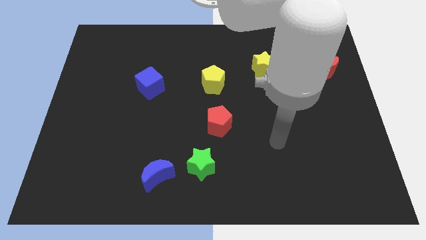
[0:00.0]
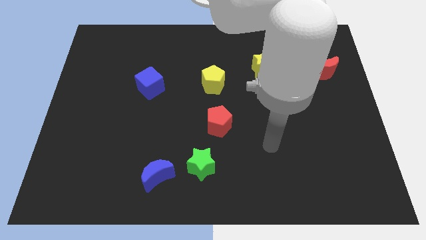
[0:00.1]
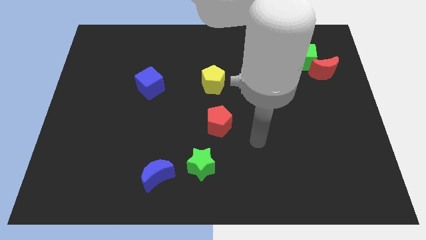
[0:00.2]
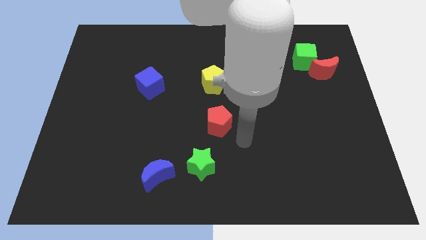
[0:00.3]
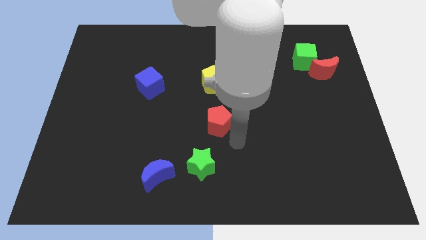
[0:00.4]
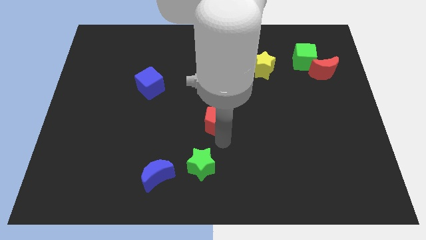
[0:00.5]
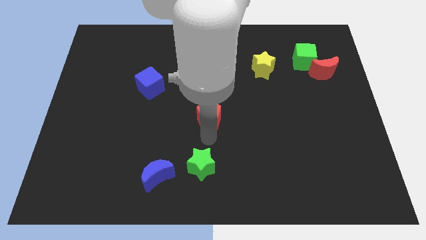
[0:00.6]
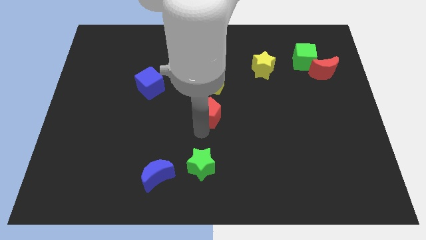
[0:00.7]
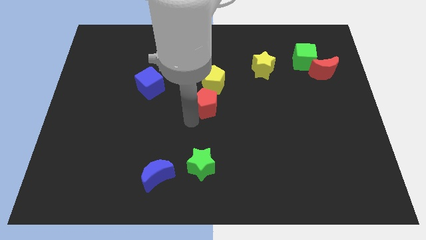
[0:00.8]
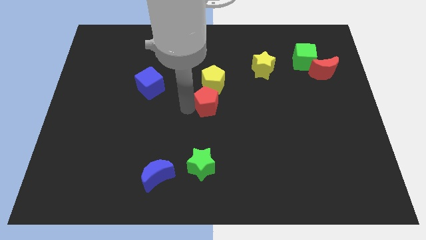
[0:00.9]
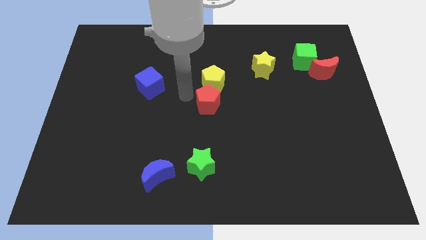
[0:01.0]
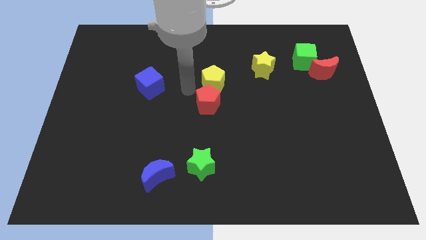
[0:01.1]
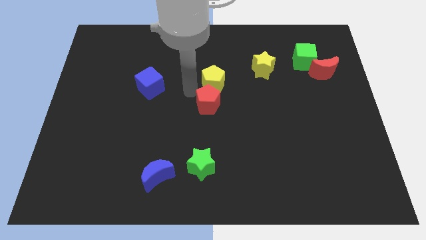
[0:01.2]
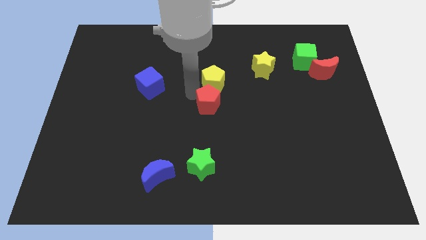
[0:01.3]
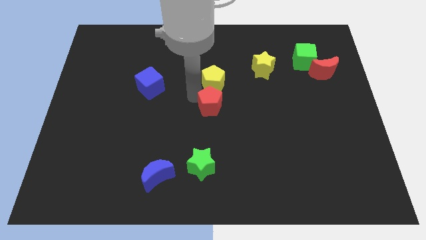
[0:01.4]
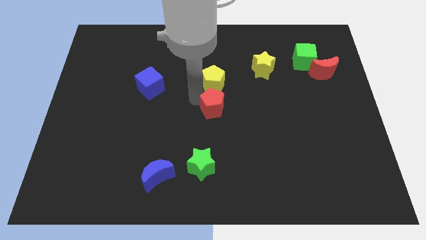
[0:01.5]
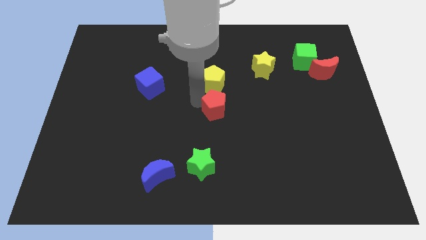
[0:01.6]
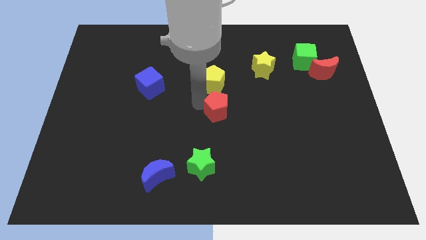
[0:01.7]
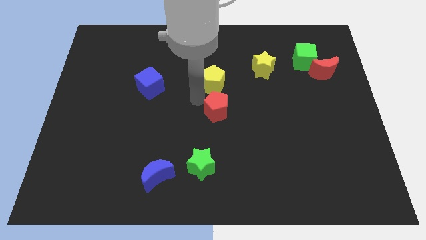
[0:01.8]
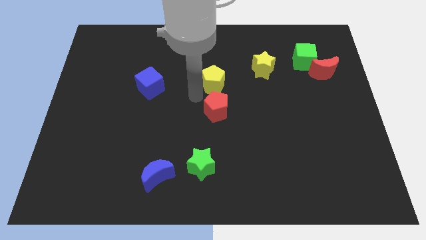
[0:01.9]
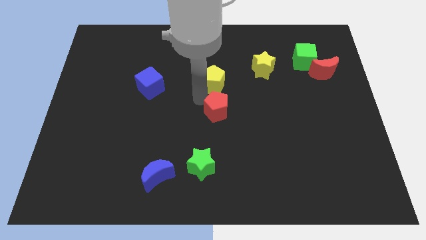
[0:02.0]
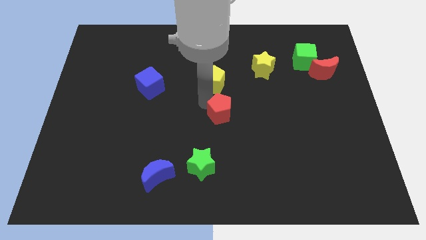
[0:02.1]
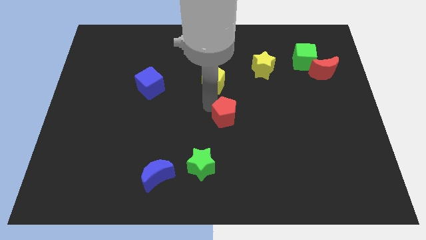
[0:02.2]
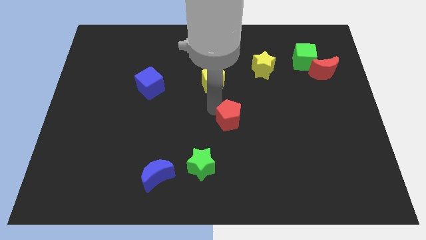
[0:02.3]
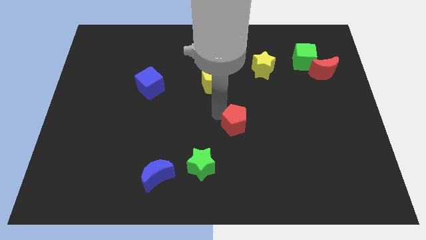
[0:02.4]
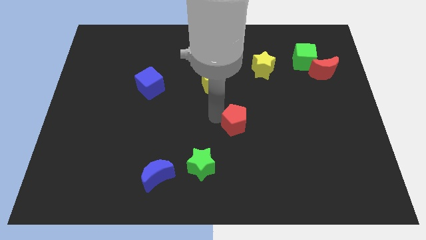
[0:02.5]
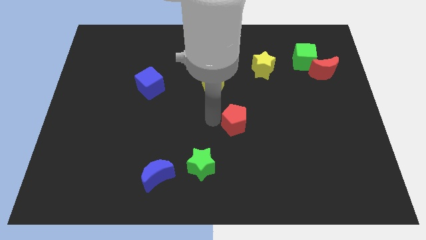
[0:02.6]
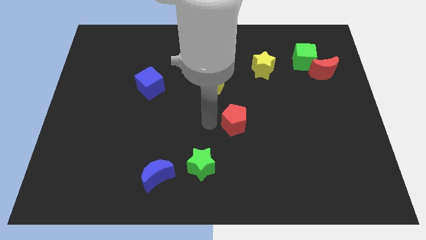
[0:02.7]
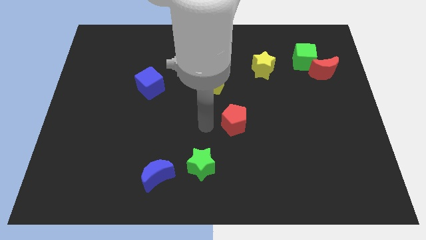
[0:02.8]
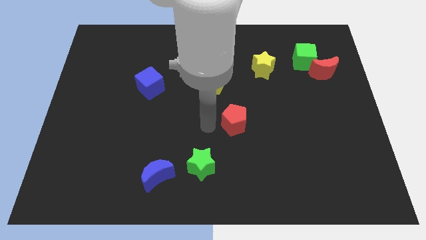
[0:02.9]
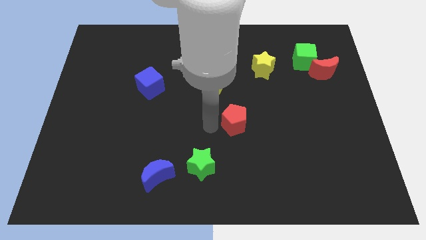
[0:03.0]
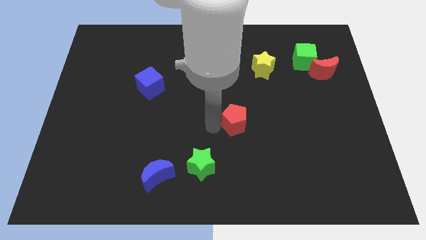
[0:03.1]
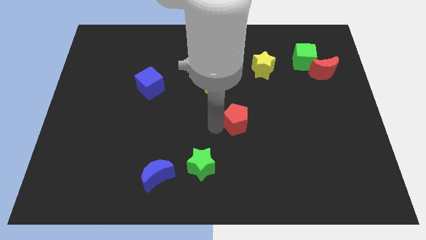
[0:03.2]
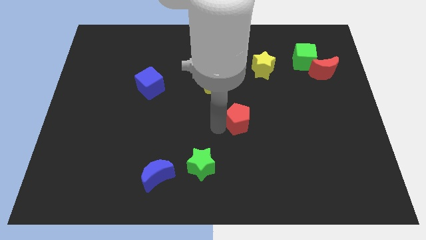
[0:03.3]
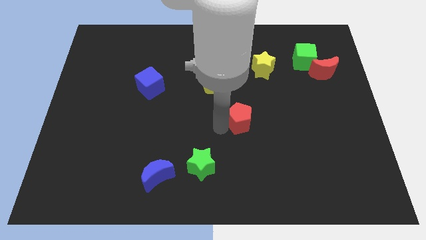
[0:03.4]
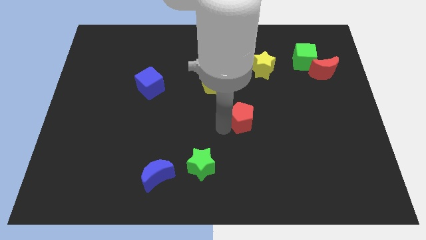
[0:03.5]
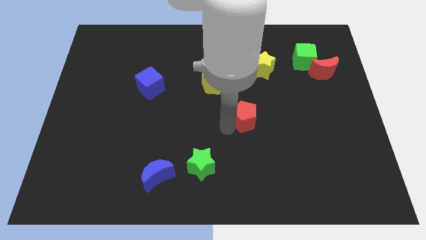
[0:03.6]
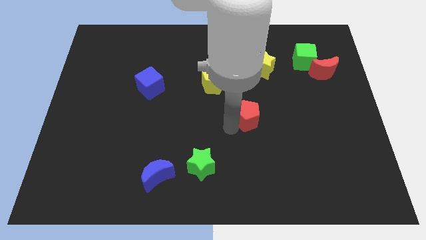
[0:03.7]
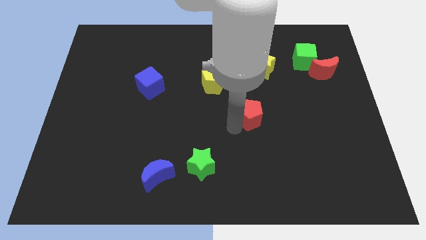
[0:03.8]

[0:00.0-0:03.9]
move the red pentagon right a little

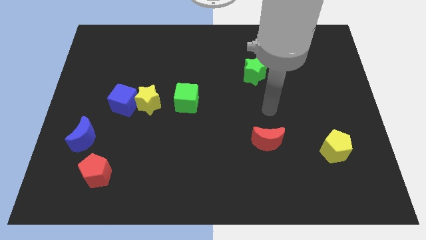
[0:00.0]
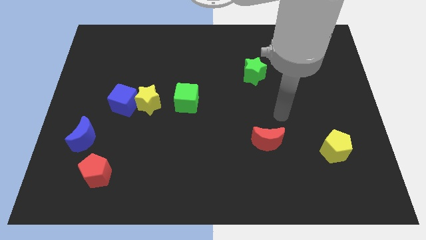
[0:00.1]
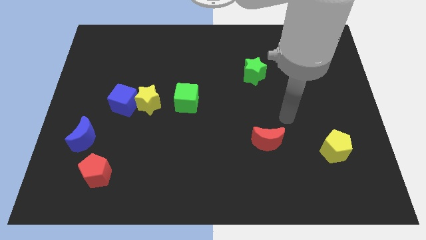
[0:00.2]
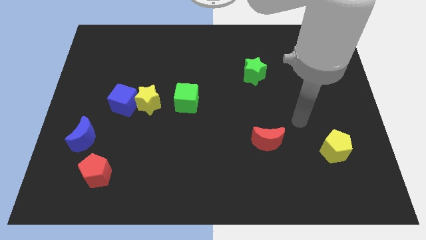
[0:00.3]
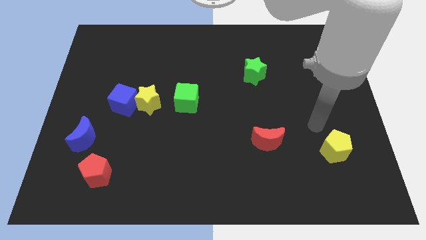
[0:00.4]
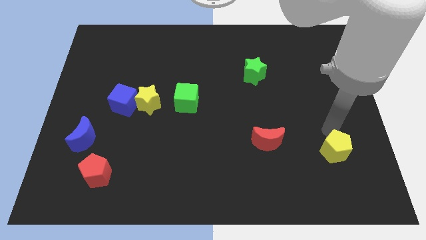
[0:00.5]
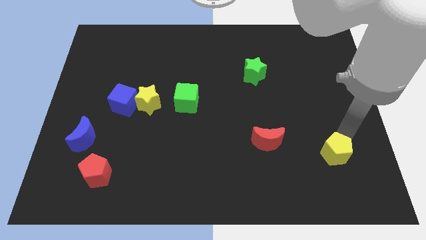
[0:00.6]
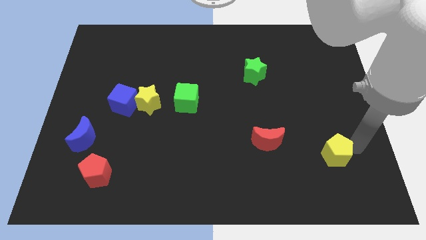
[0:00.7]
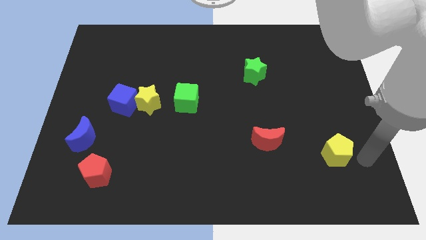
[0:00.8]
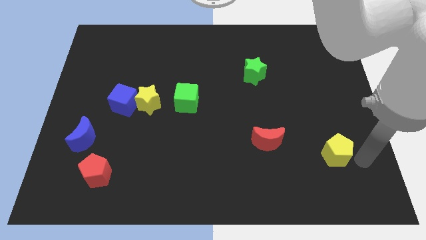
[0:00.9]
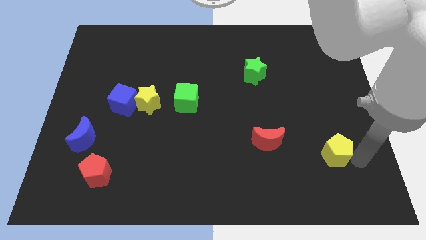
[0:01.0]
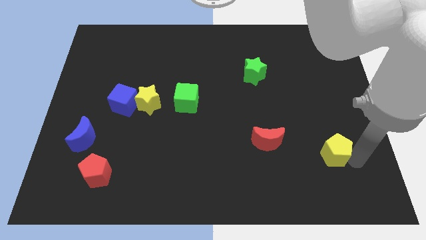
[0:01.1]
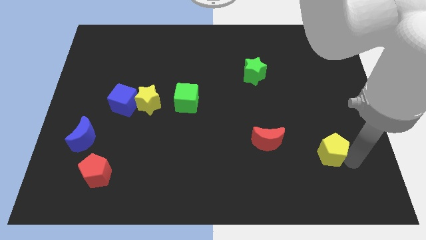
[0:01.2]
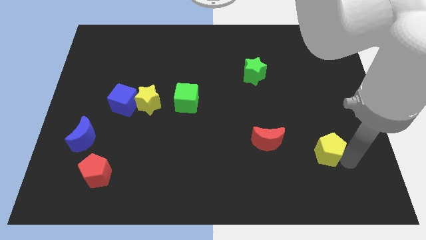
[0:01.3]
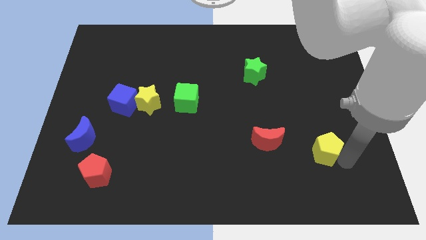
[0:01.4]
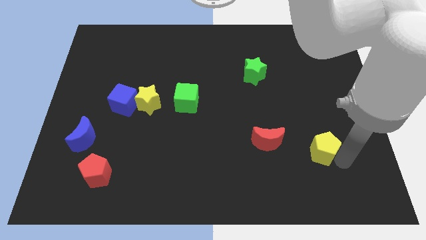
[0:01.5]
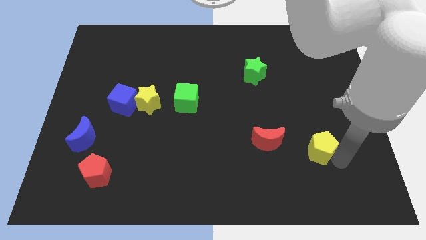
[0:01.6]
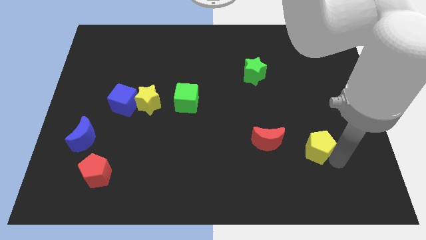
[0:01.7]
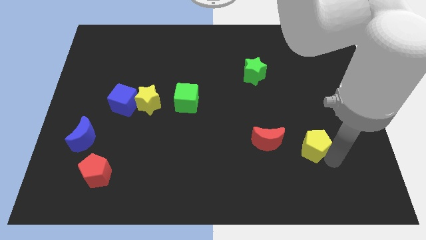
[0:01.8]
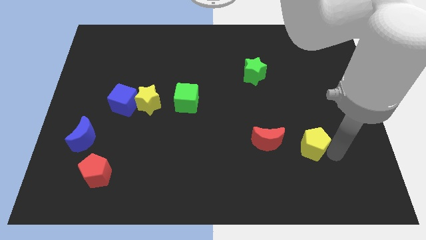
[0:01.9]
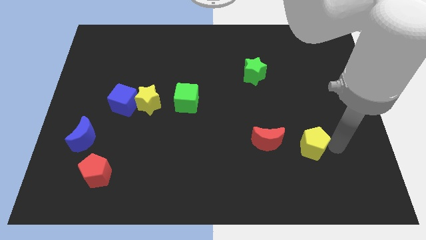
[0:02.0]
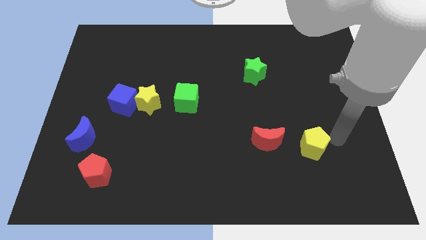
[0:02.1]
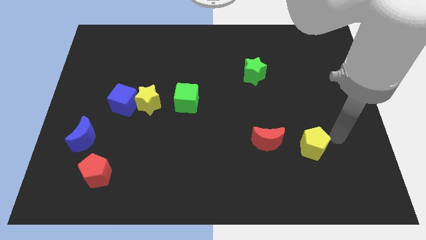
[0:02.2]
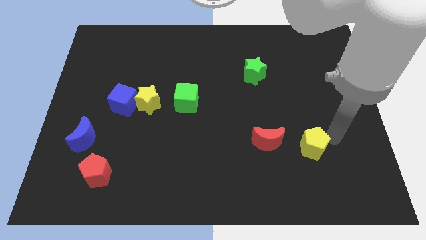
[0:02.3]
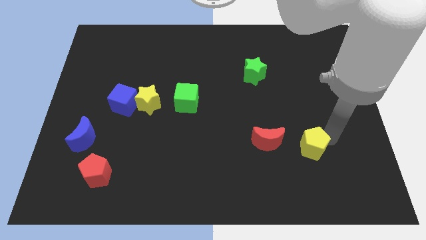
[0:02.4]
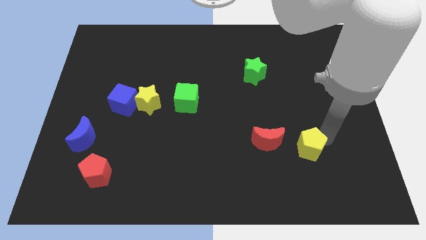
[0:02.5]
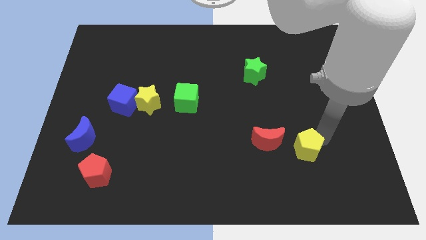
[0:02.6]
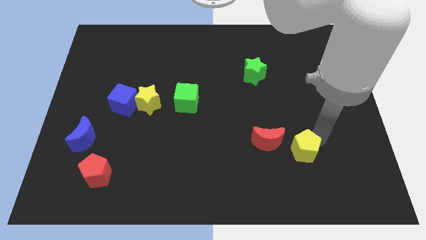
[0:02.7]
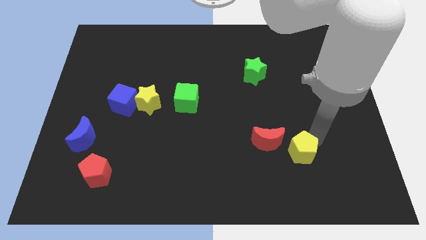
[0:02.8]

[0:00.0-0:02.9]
slide the yellow pentagon left somewhat

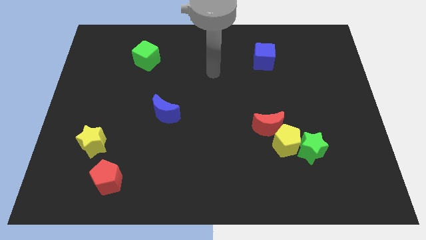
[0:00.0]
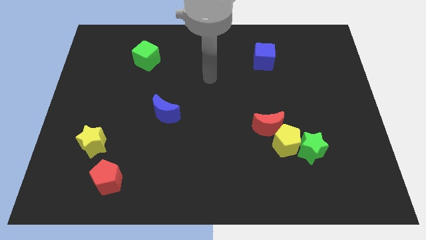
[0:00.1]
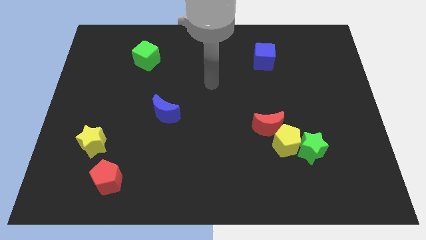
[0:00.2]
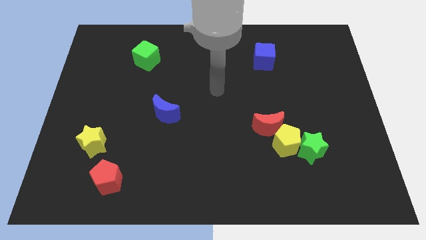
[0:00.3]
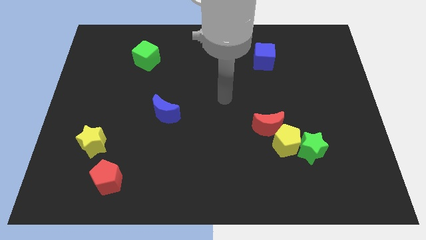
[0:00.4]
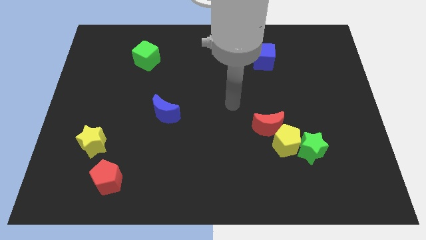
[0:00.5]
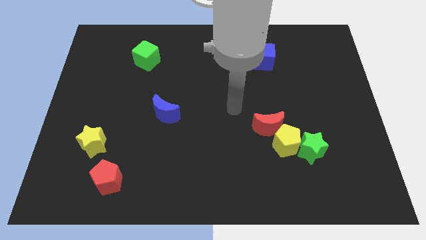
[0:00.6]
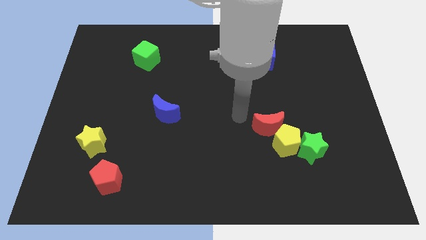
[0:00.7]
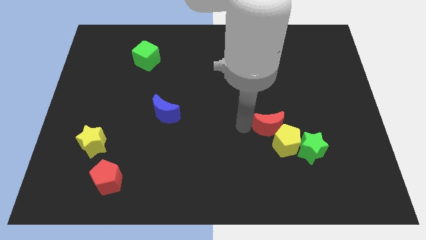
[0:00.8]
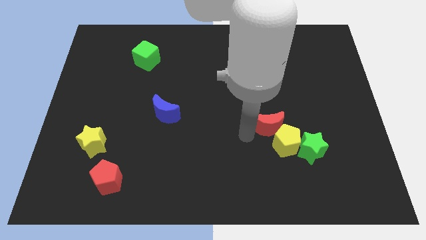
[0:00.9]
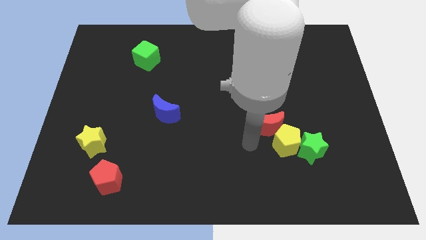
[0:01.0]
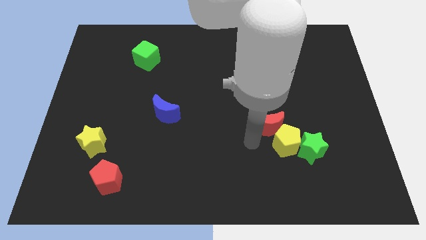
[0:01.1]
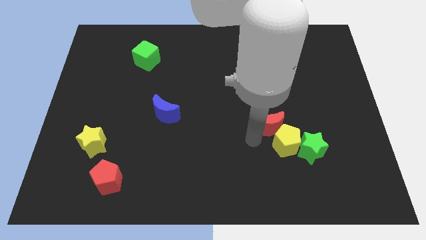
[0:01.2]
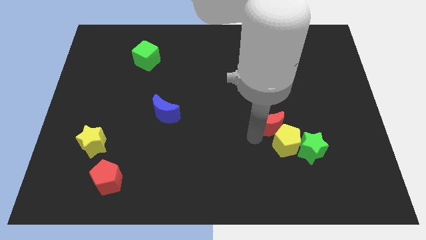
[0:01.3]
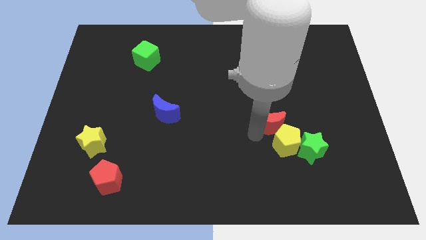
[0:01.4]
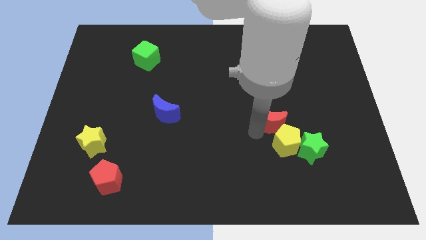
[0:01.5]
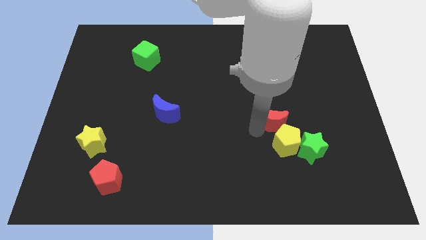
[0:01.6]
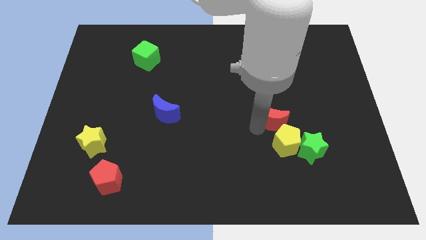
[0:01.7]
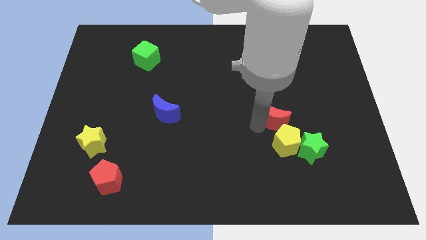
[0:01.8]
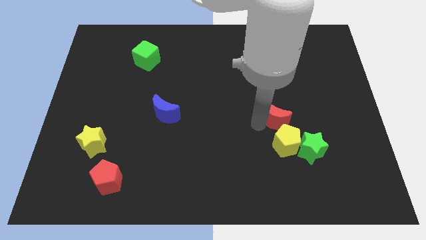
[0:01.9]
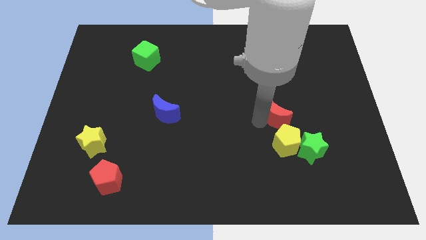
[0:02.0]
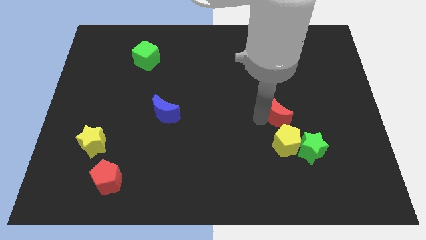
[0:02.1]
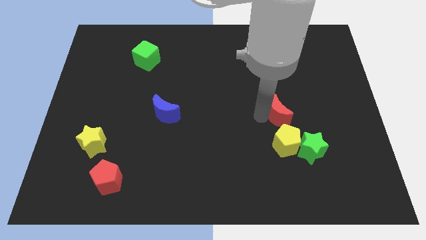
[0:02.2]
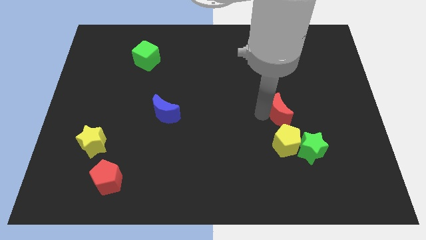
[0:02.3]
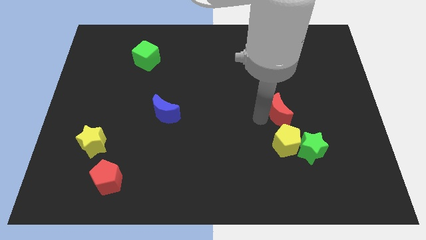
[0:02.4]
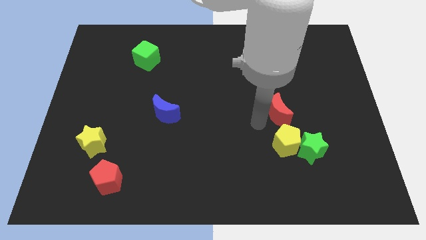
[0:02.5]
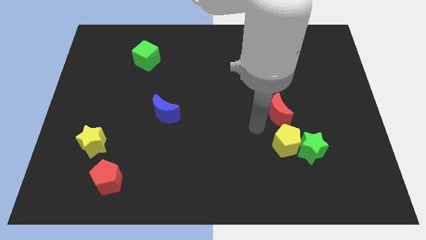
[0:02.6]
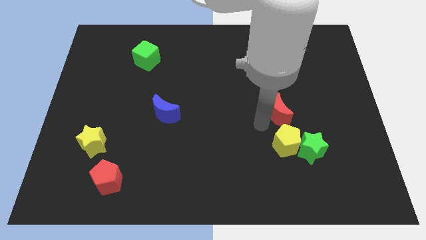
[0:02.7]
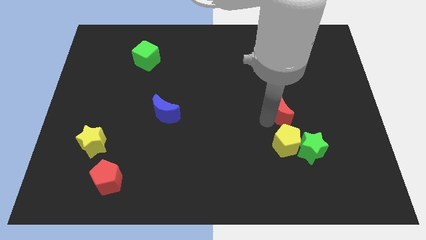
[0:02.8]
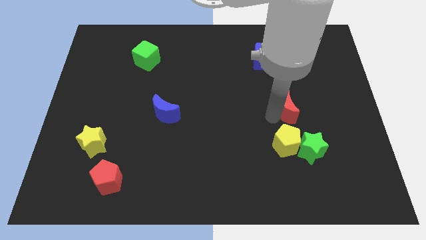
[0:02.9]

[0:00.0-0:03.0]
move the red moon a bit upwards and then to the right
